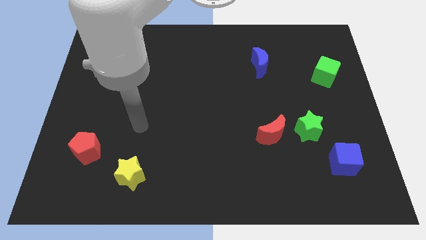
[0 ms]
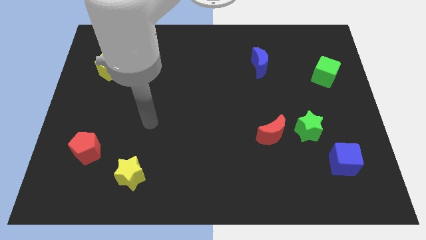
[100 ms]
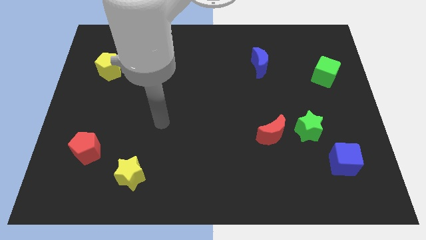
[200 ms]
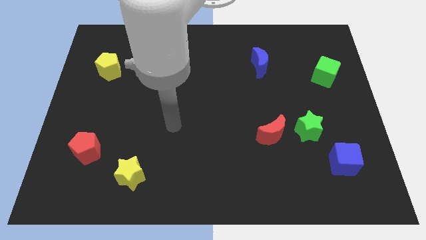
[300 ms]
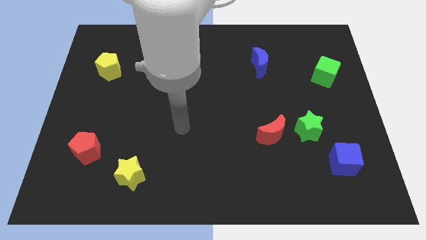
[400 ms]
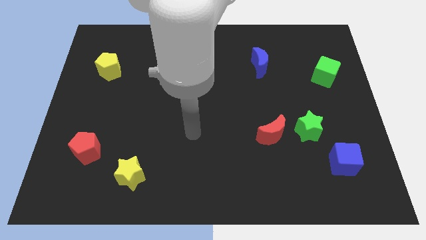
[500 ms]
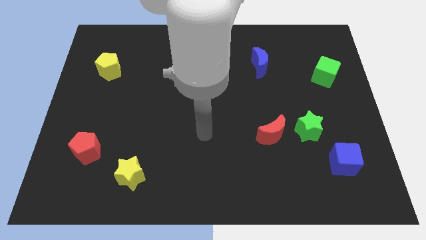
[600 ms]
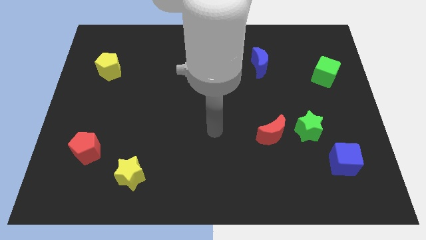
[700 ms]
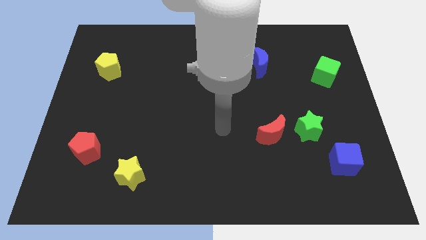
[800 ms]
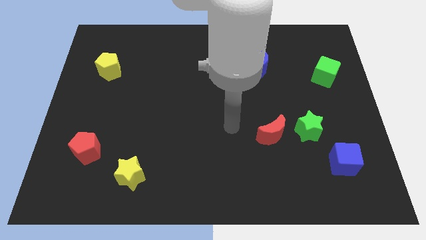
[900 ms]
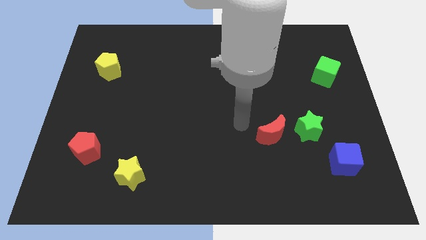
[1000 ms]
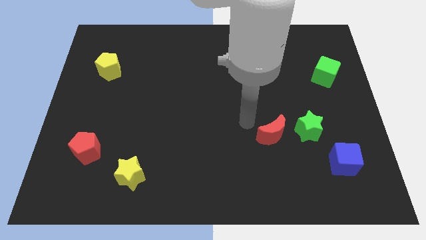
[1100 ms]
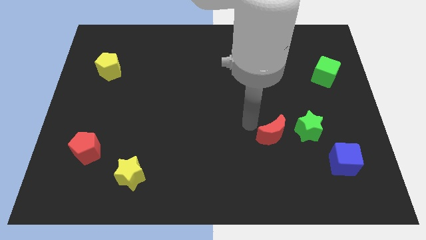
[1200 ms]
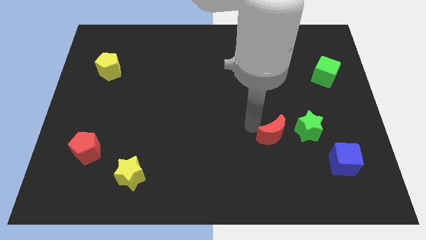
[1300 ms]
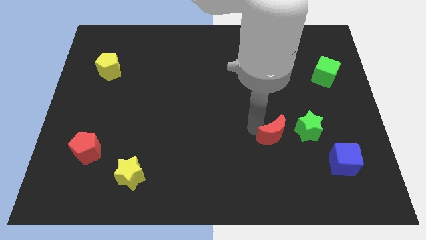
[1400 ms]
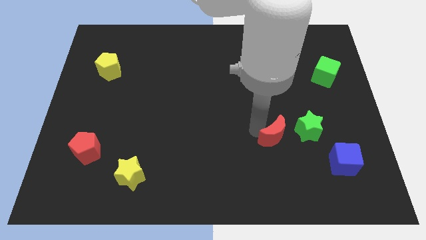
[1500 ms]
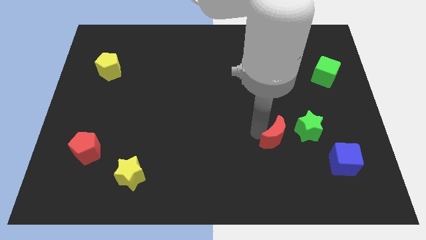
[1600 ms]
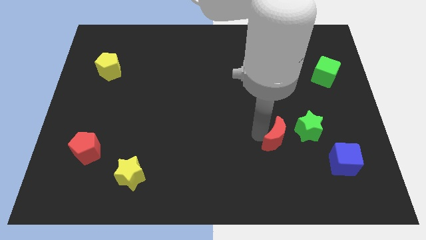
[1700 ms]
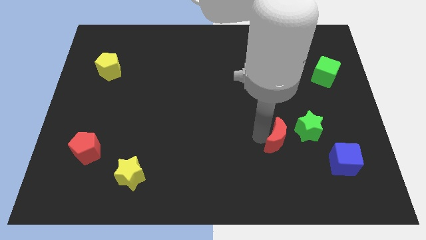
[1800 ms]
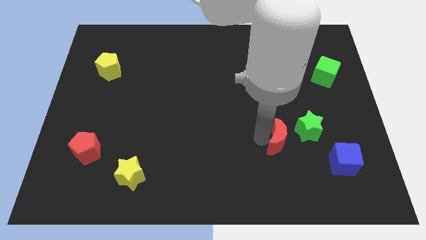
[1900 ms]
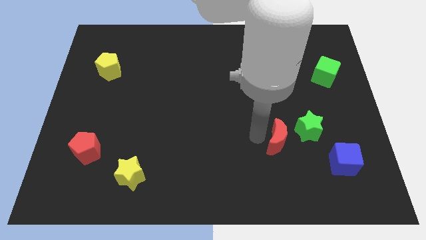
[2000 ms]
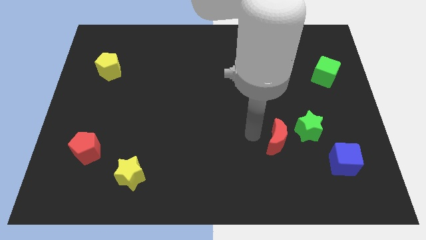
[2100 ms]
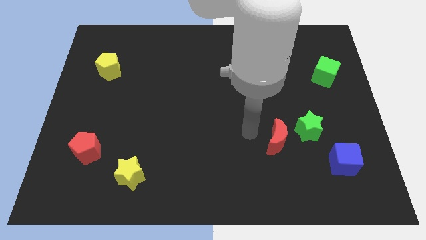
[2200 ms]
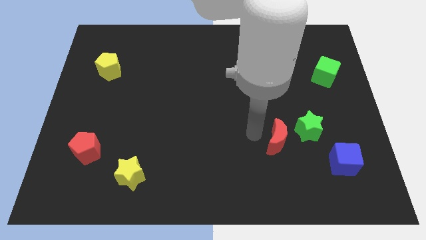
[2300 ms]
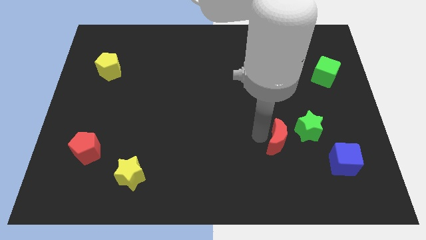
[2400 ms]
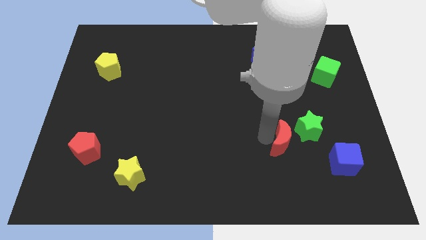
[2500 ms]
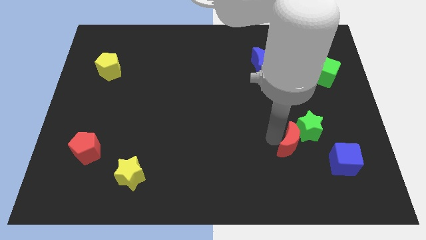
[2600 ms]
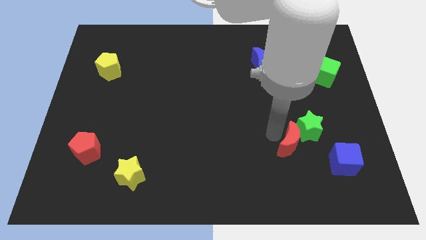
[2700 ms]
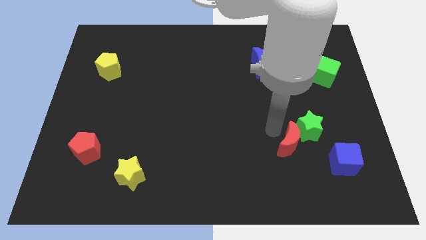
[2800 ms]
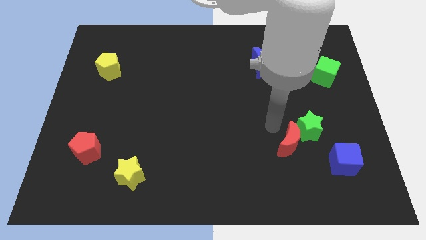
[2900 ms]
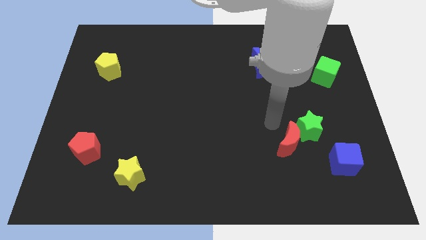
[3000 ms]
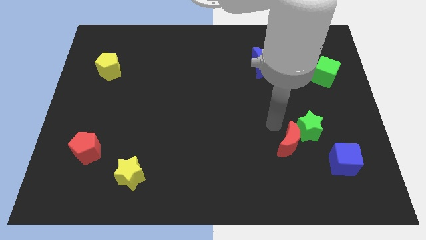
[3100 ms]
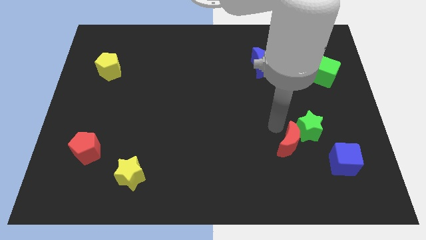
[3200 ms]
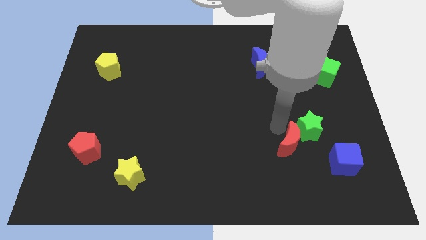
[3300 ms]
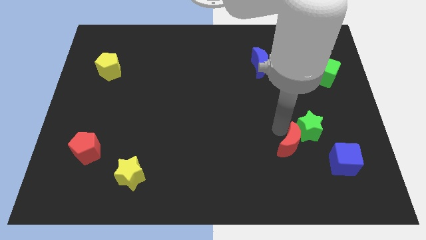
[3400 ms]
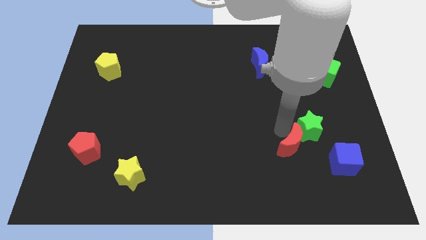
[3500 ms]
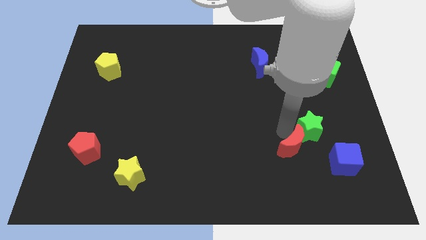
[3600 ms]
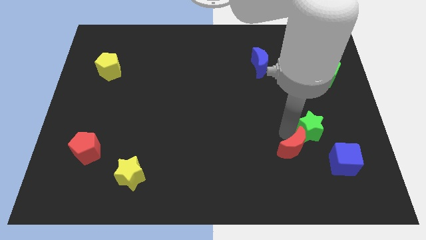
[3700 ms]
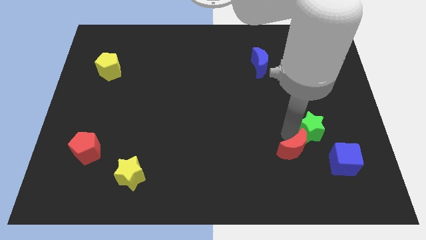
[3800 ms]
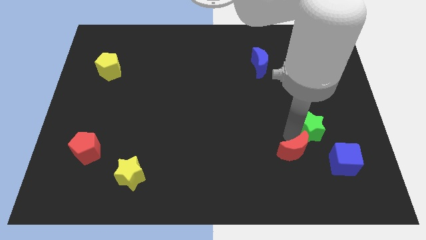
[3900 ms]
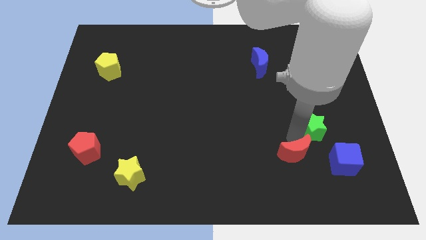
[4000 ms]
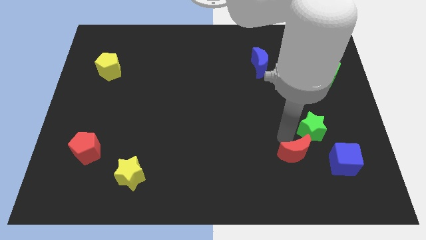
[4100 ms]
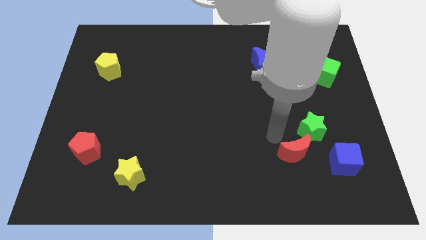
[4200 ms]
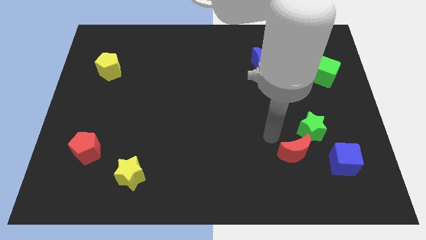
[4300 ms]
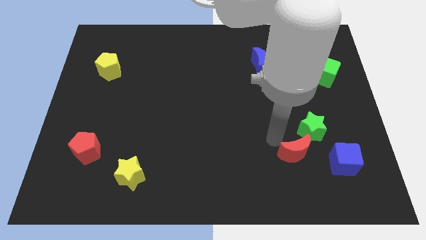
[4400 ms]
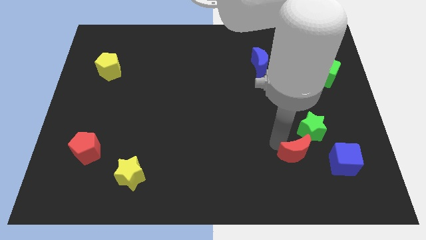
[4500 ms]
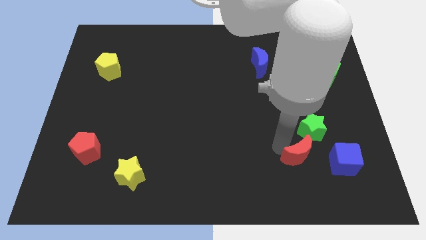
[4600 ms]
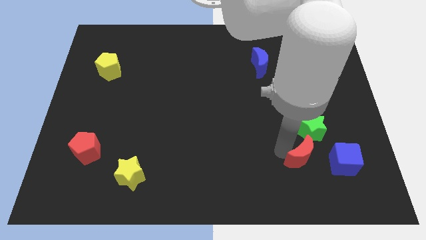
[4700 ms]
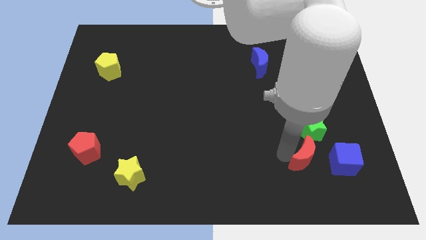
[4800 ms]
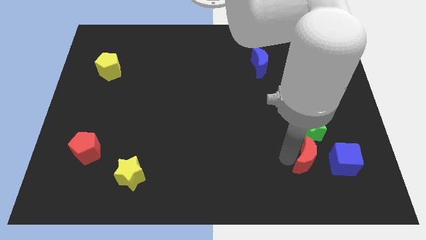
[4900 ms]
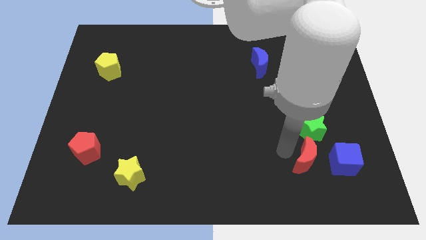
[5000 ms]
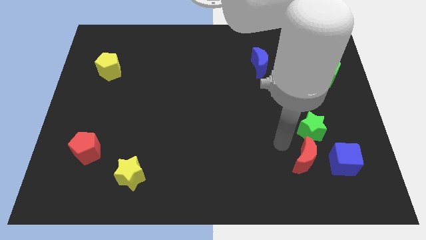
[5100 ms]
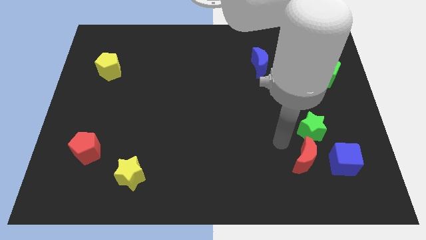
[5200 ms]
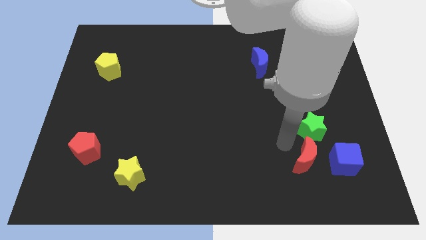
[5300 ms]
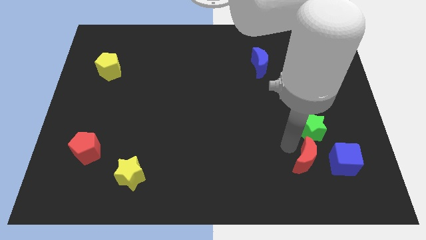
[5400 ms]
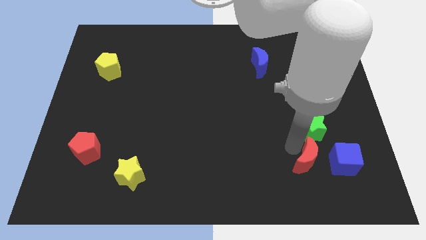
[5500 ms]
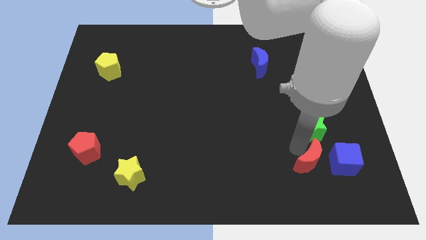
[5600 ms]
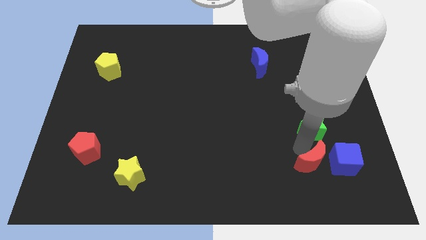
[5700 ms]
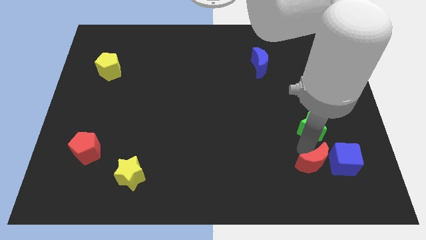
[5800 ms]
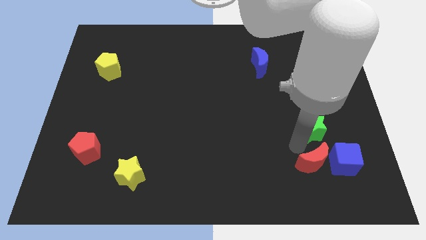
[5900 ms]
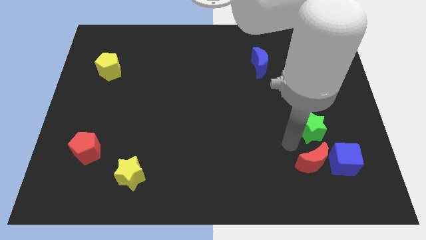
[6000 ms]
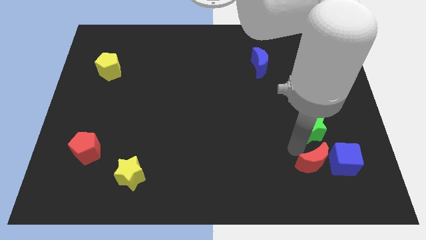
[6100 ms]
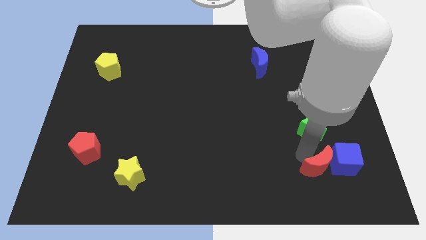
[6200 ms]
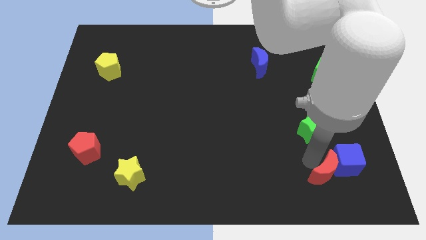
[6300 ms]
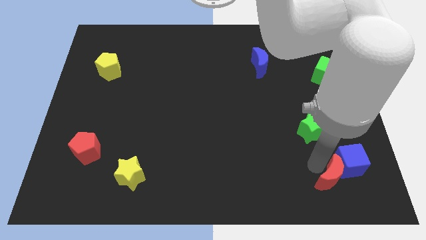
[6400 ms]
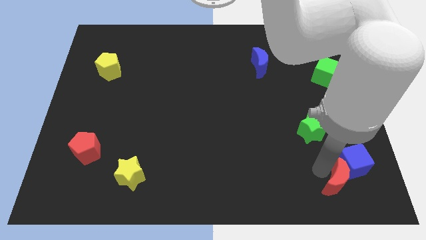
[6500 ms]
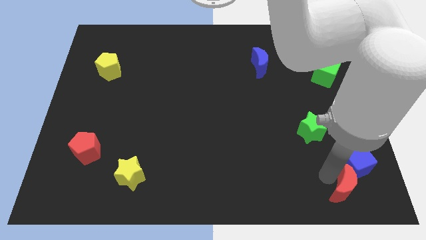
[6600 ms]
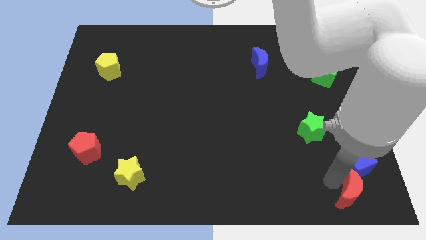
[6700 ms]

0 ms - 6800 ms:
move the red moon to the bottom right of the board

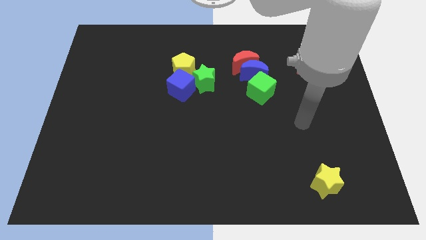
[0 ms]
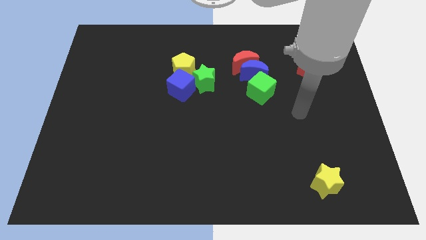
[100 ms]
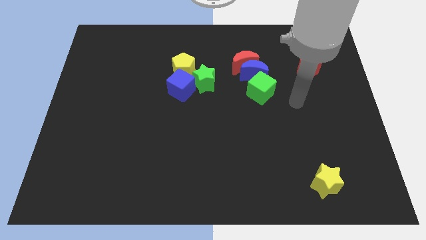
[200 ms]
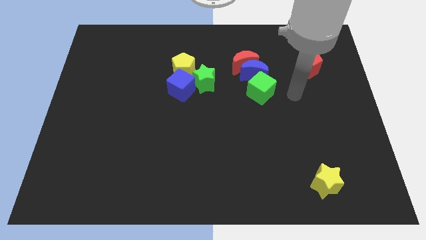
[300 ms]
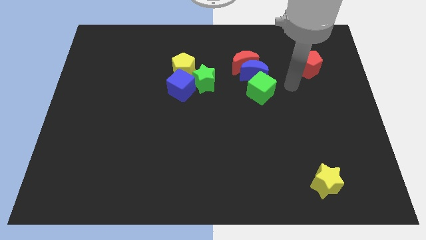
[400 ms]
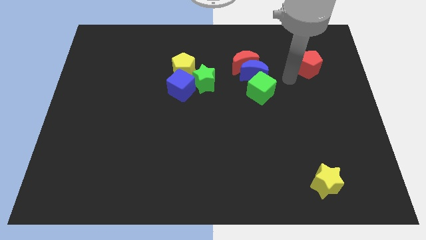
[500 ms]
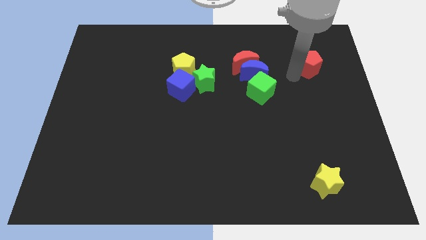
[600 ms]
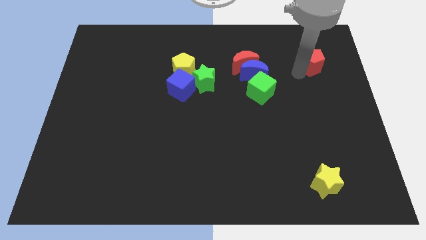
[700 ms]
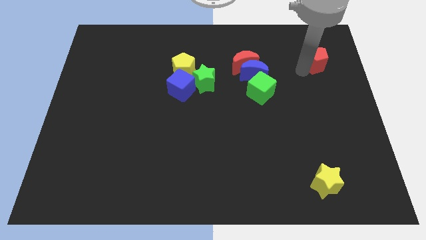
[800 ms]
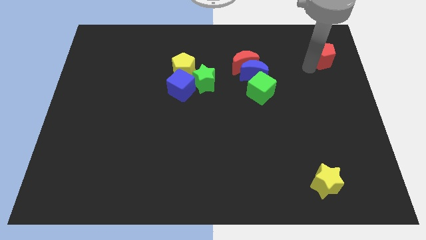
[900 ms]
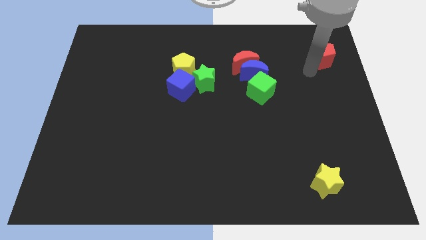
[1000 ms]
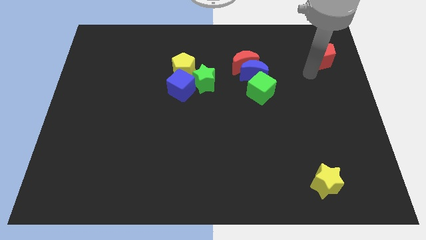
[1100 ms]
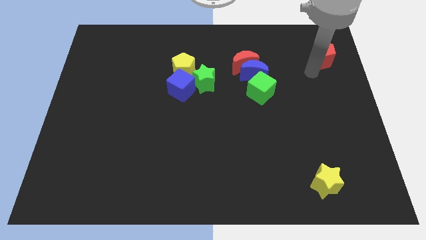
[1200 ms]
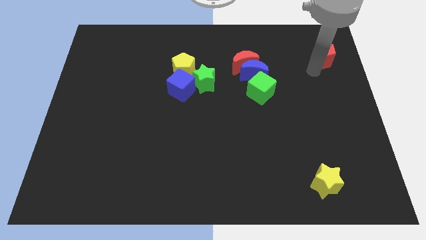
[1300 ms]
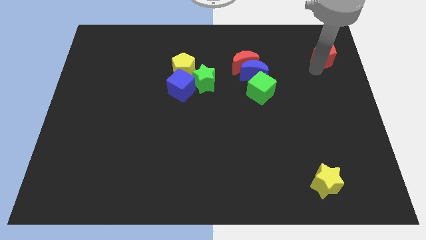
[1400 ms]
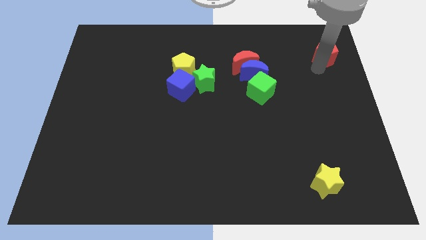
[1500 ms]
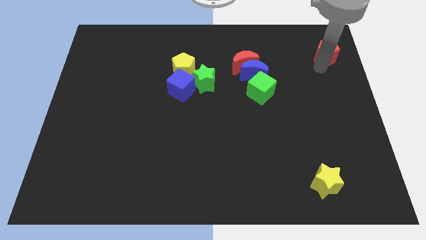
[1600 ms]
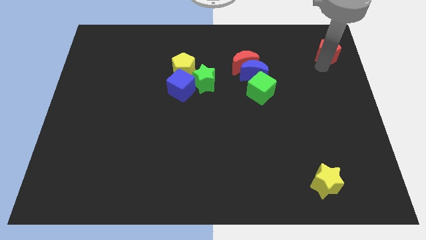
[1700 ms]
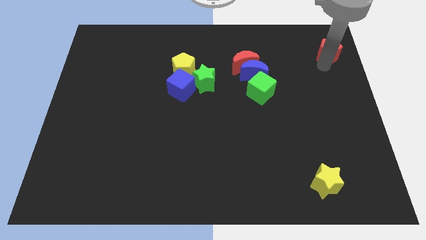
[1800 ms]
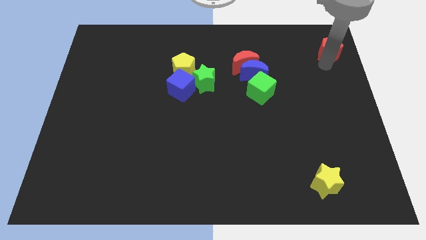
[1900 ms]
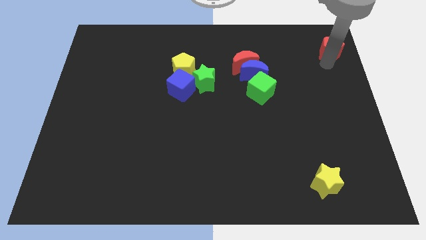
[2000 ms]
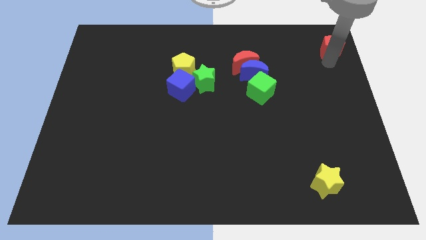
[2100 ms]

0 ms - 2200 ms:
move the red pentagon to the top right
